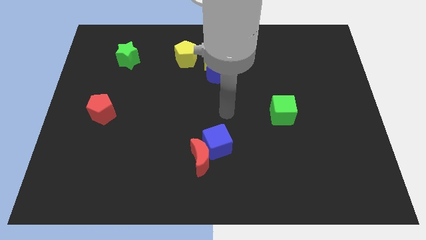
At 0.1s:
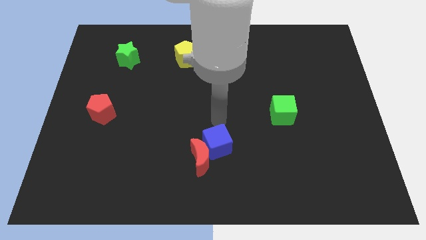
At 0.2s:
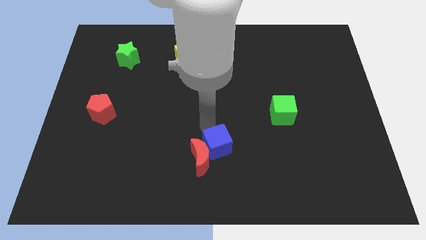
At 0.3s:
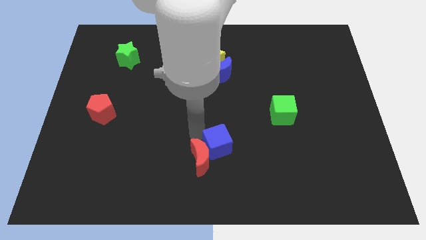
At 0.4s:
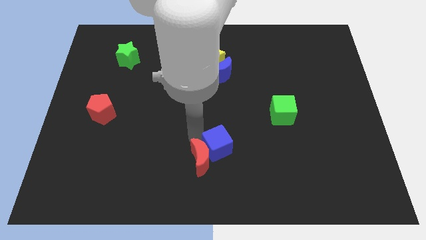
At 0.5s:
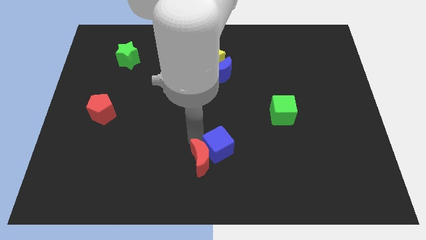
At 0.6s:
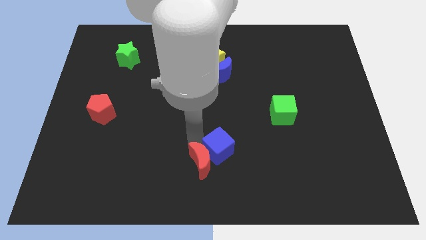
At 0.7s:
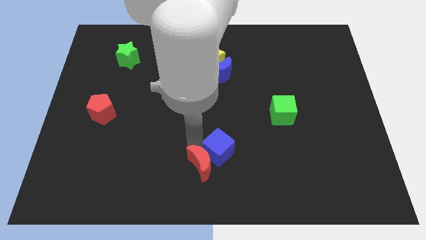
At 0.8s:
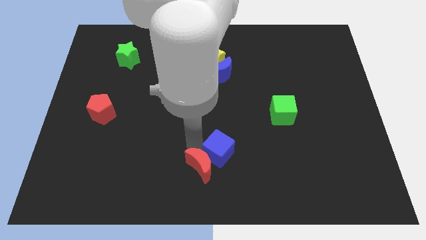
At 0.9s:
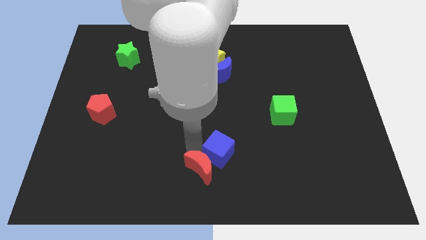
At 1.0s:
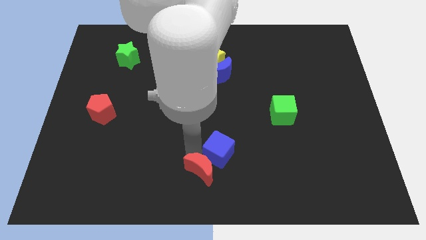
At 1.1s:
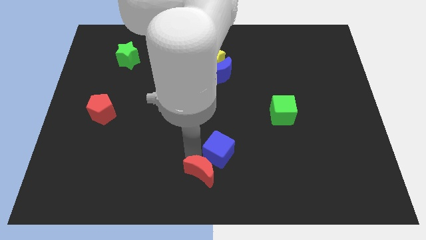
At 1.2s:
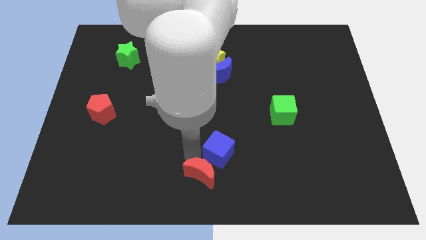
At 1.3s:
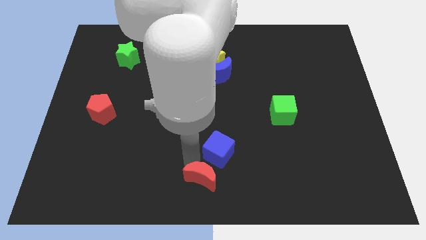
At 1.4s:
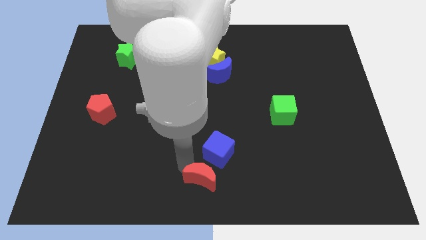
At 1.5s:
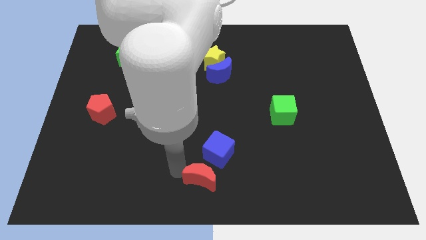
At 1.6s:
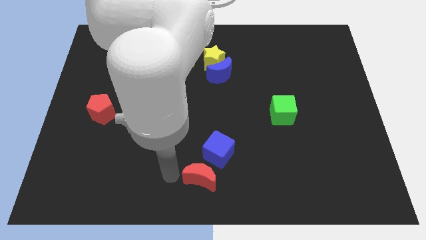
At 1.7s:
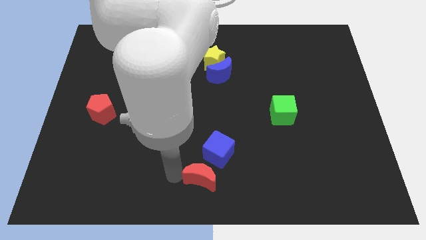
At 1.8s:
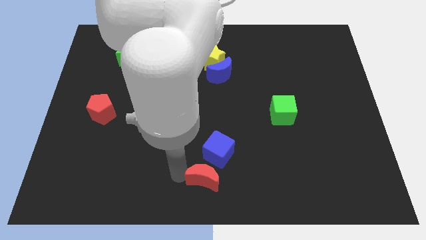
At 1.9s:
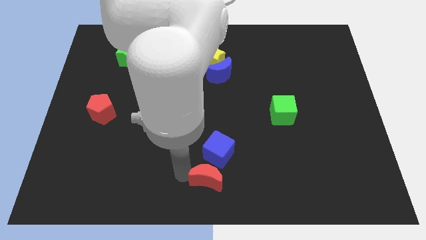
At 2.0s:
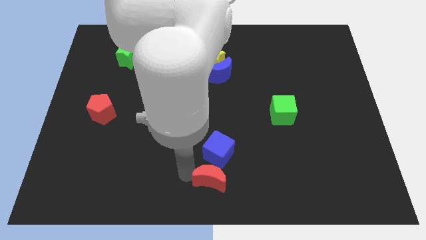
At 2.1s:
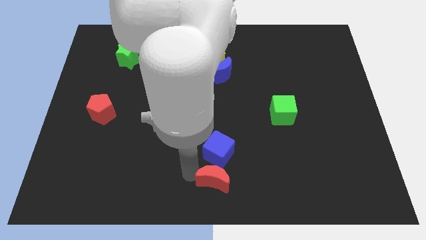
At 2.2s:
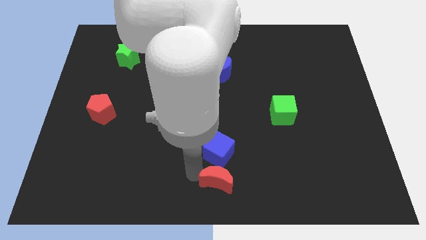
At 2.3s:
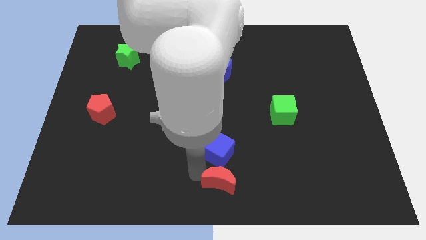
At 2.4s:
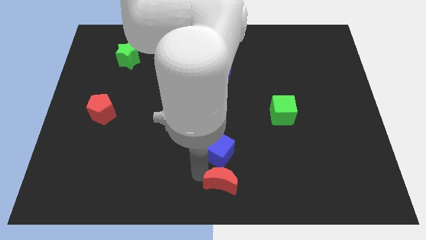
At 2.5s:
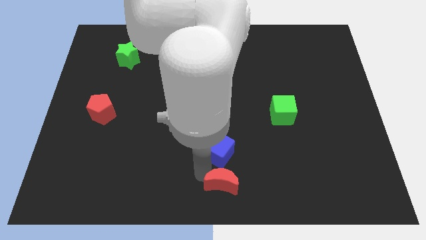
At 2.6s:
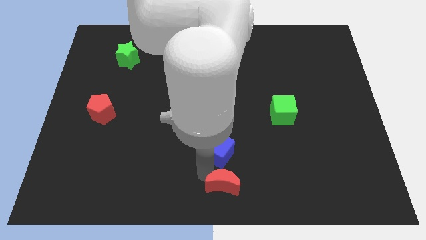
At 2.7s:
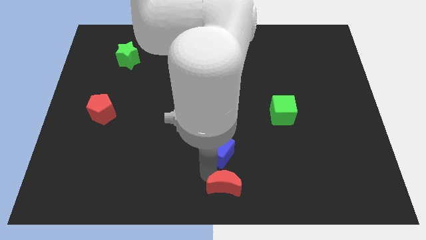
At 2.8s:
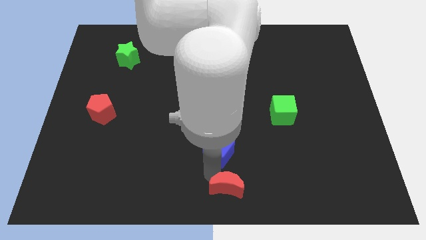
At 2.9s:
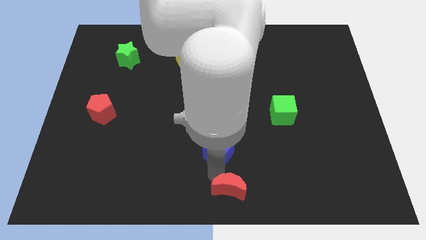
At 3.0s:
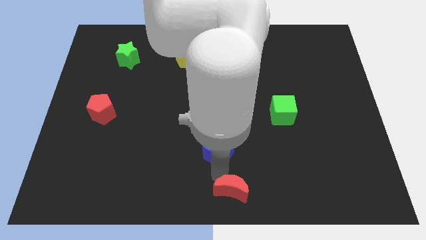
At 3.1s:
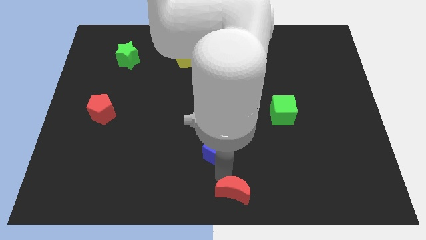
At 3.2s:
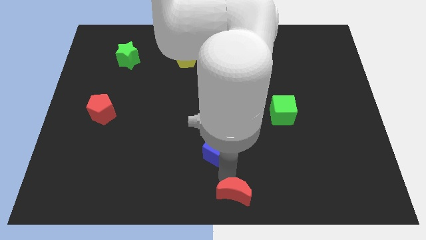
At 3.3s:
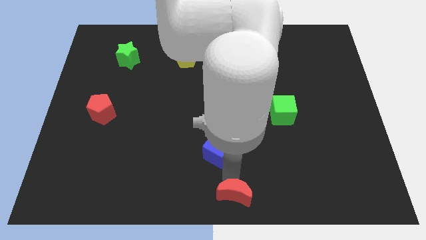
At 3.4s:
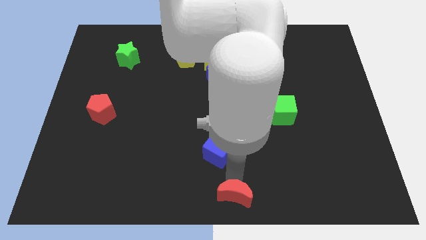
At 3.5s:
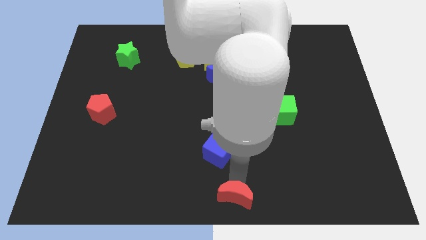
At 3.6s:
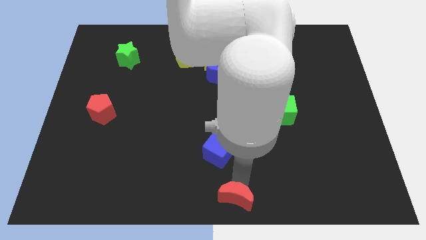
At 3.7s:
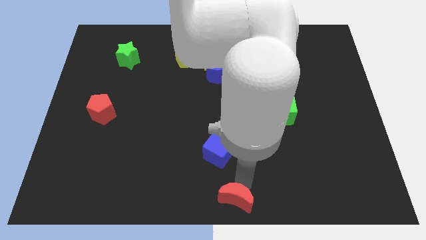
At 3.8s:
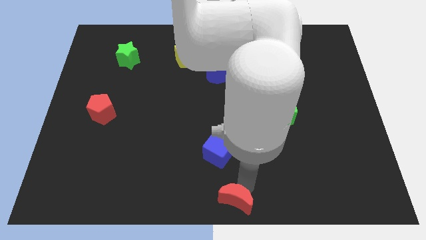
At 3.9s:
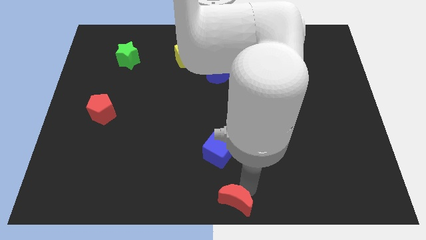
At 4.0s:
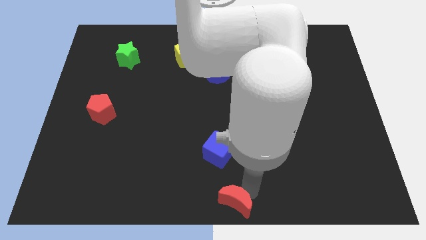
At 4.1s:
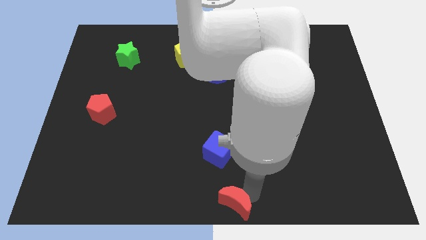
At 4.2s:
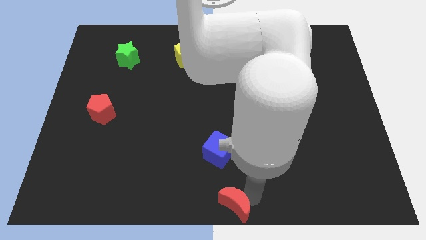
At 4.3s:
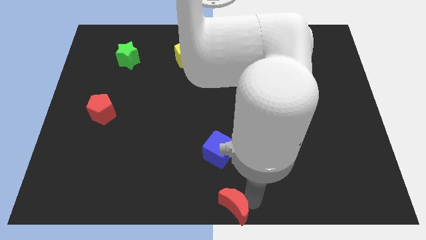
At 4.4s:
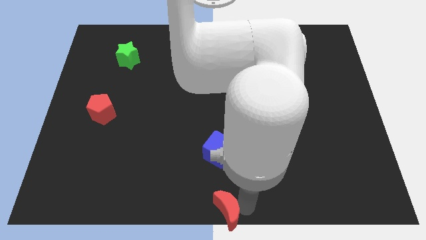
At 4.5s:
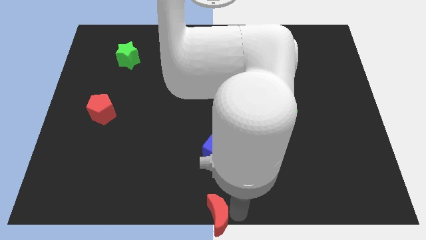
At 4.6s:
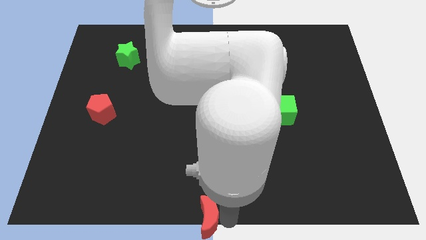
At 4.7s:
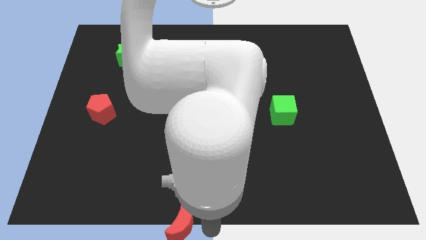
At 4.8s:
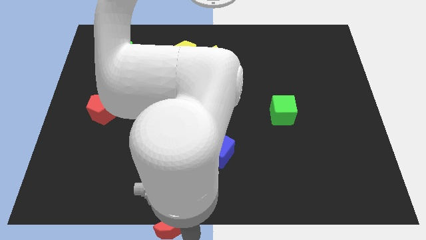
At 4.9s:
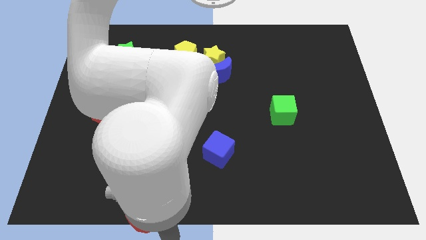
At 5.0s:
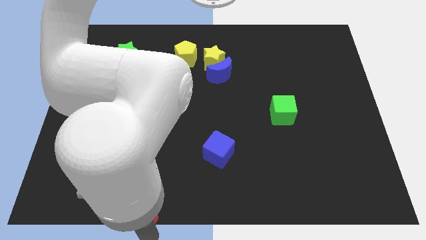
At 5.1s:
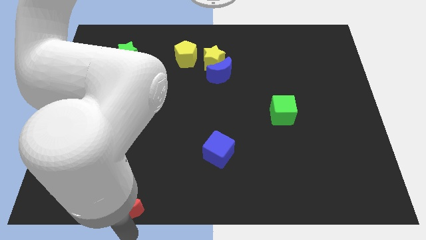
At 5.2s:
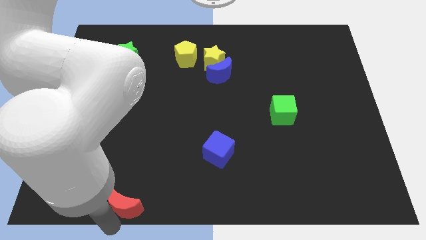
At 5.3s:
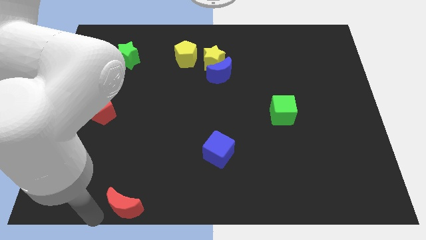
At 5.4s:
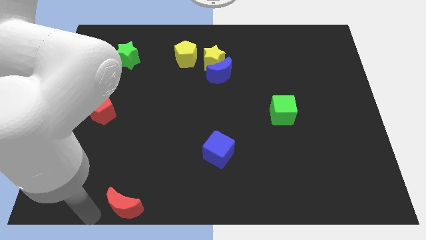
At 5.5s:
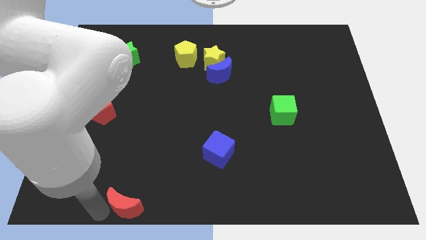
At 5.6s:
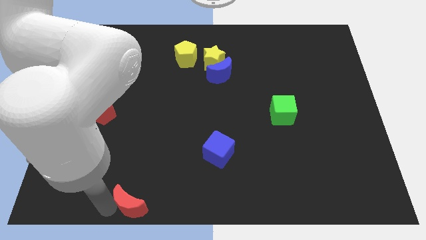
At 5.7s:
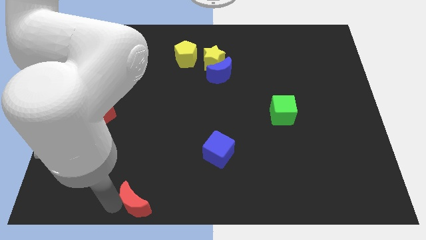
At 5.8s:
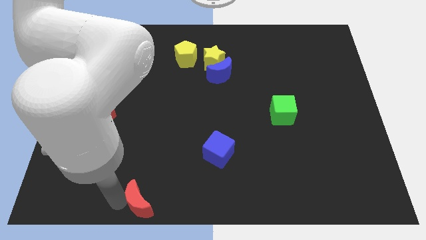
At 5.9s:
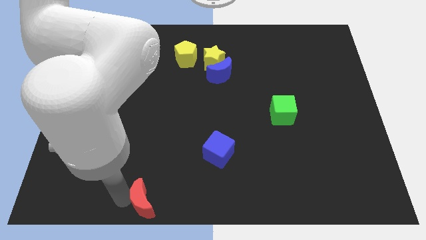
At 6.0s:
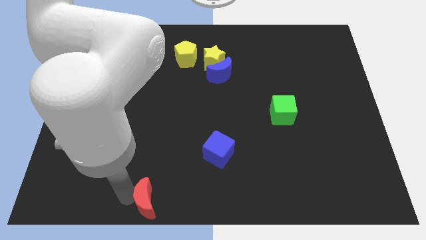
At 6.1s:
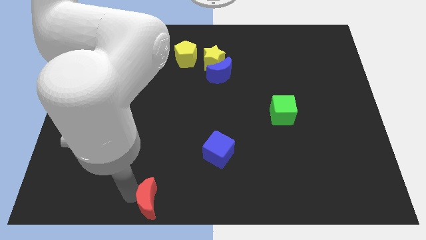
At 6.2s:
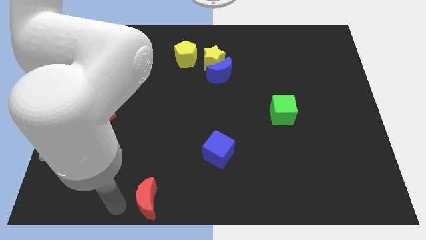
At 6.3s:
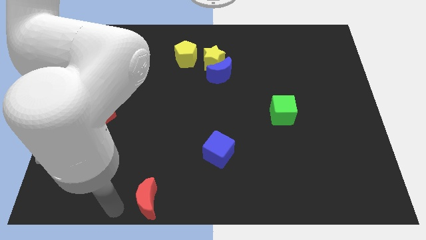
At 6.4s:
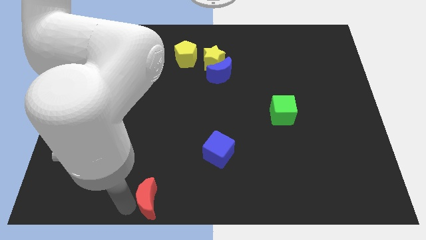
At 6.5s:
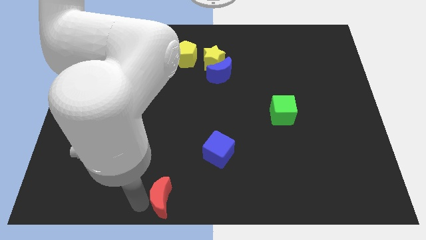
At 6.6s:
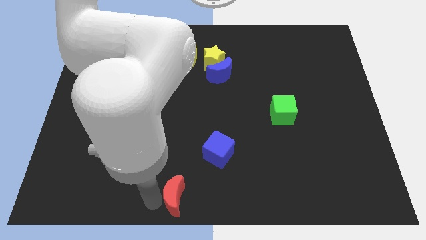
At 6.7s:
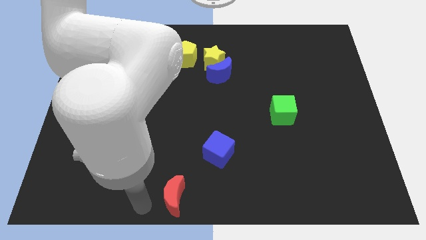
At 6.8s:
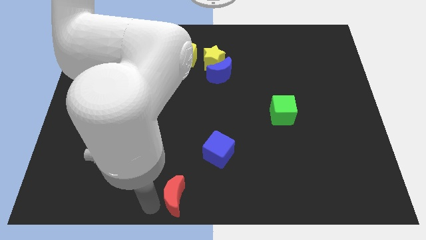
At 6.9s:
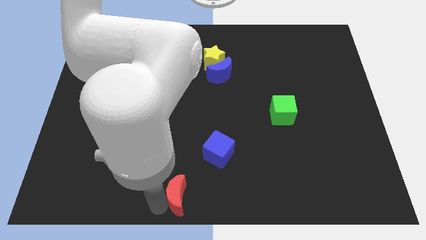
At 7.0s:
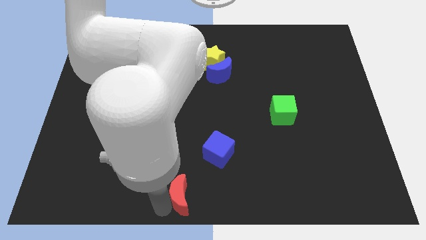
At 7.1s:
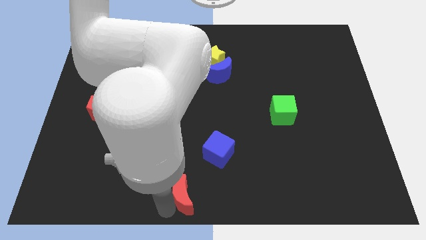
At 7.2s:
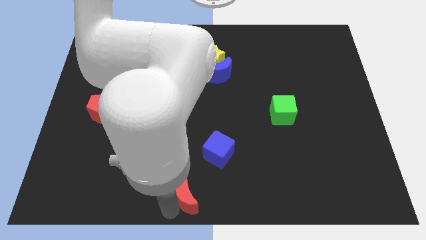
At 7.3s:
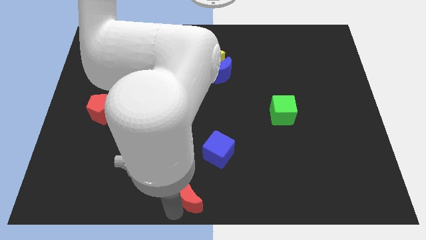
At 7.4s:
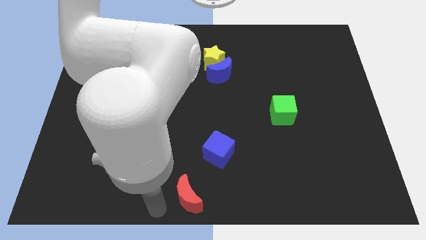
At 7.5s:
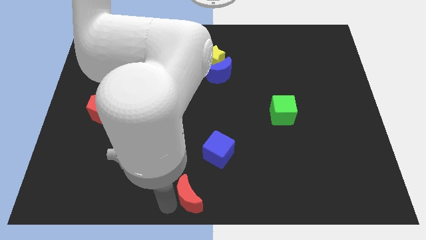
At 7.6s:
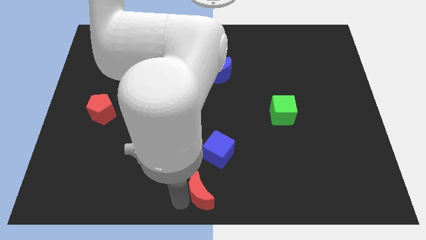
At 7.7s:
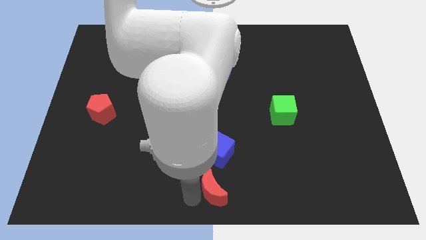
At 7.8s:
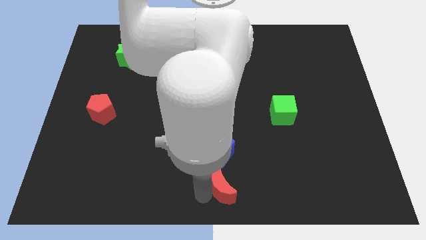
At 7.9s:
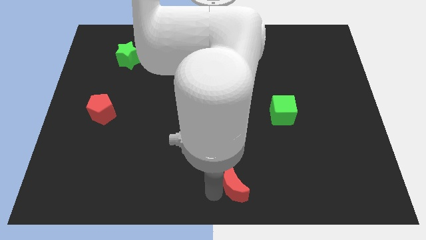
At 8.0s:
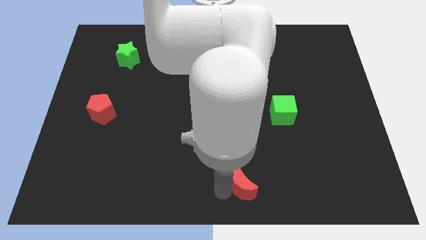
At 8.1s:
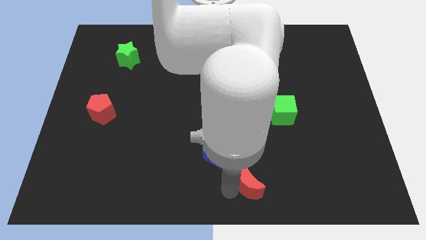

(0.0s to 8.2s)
move the red moon somewhat right

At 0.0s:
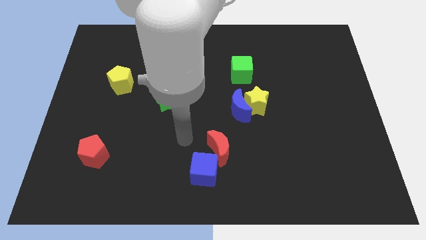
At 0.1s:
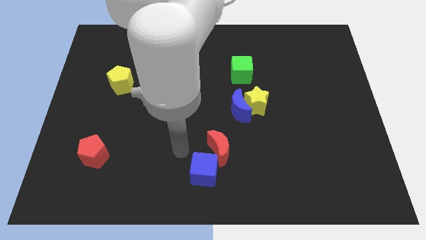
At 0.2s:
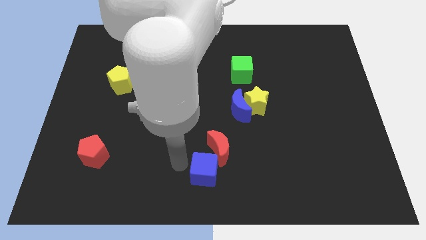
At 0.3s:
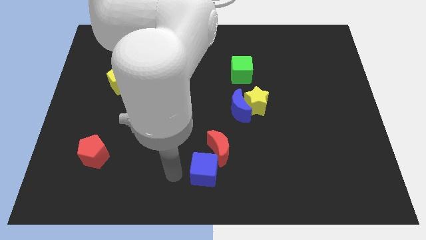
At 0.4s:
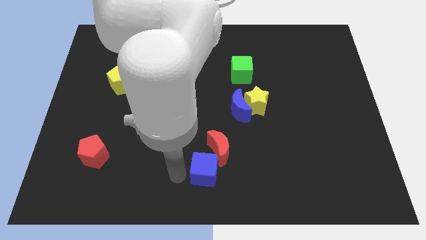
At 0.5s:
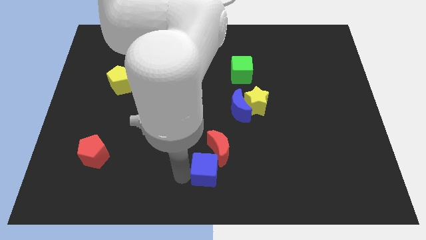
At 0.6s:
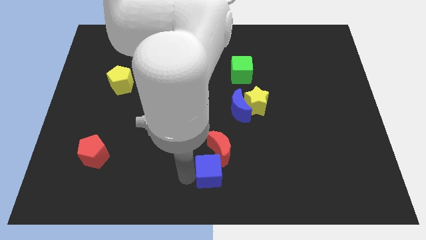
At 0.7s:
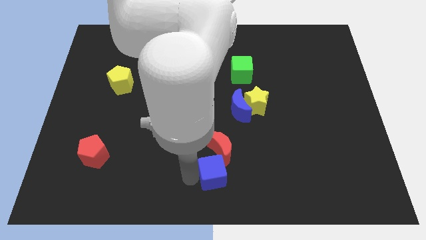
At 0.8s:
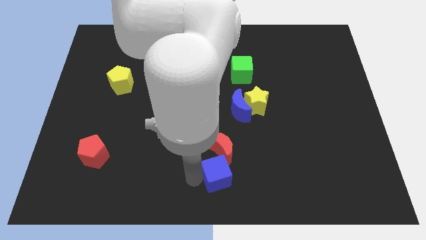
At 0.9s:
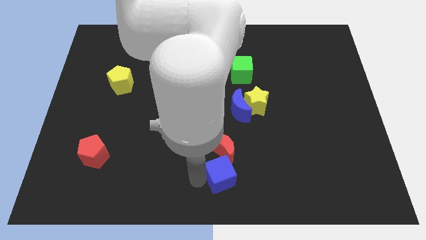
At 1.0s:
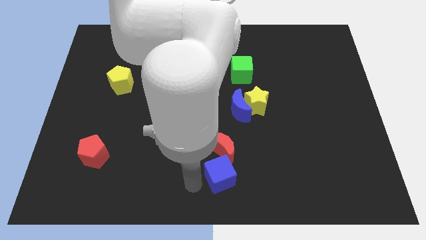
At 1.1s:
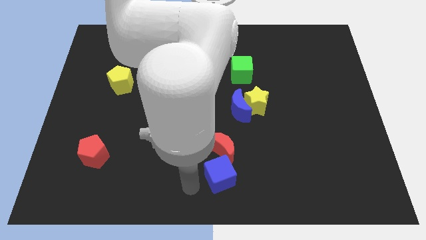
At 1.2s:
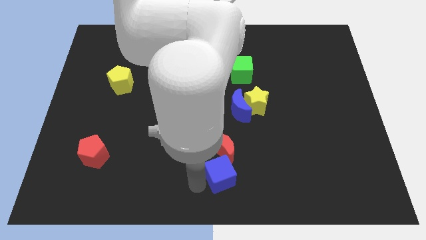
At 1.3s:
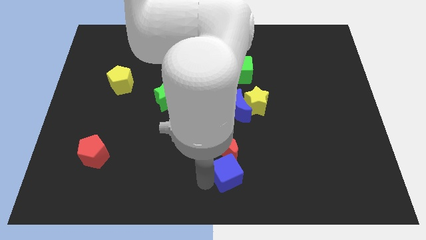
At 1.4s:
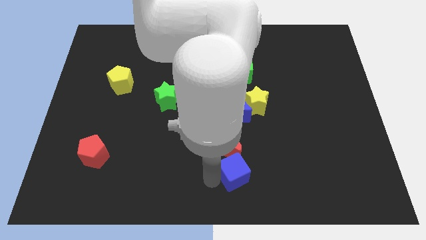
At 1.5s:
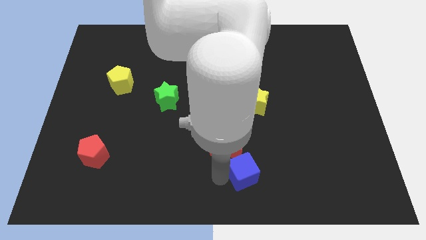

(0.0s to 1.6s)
slightly move the blue cube to the right
